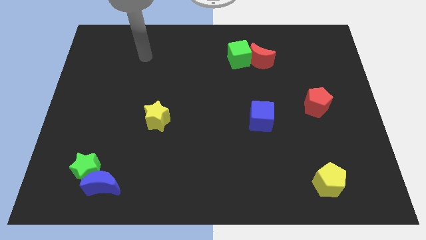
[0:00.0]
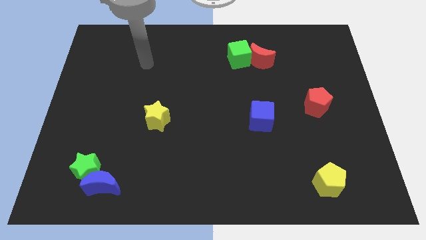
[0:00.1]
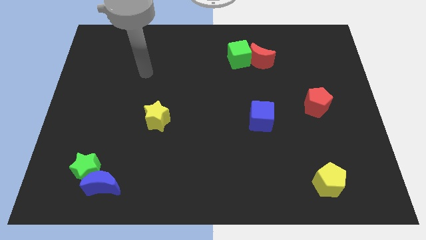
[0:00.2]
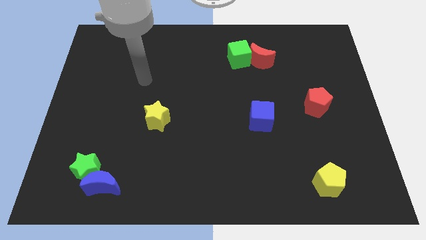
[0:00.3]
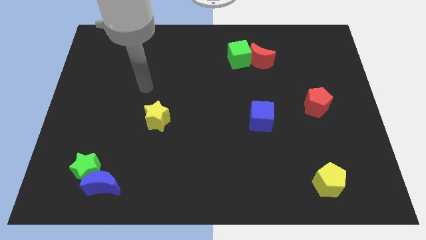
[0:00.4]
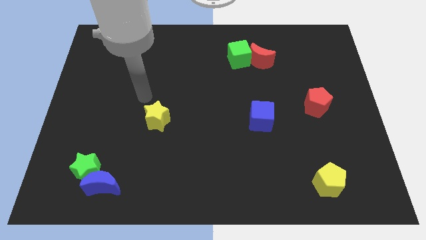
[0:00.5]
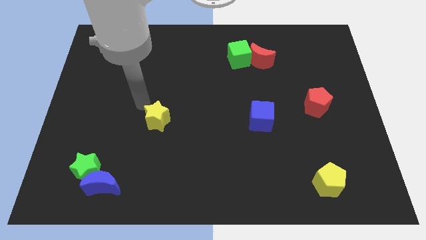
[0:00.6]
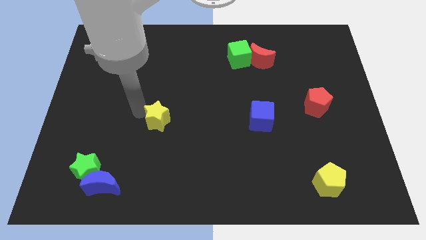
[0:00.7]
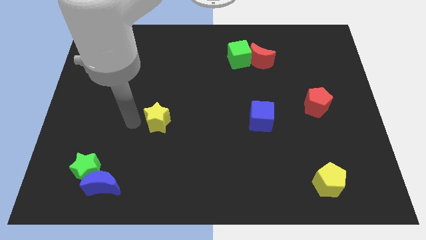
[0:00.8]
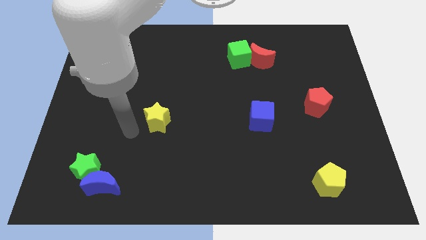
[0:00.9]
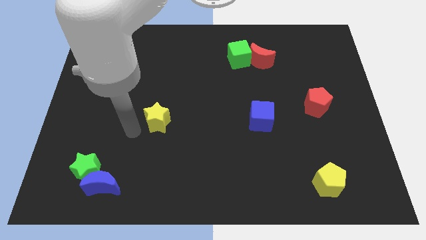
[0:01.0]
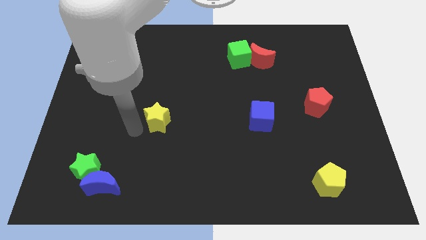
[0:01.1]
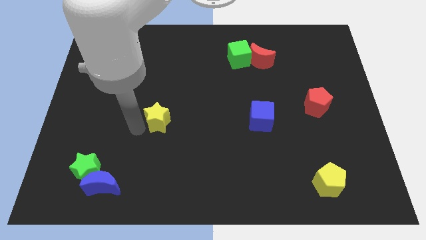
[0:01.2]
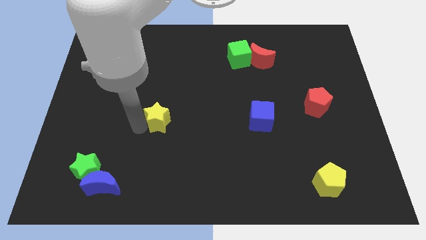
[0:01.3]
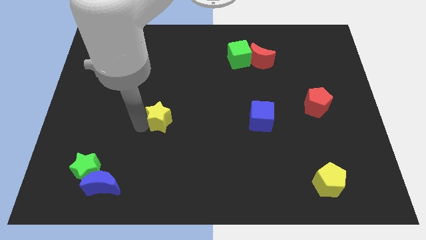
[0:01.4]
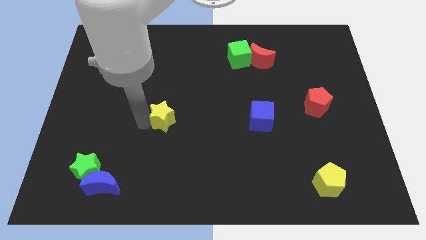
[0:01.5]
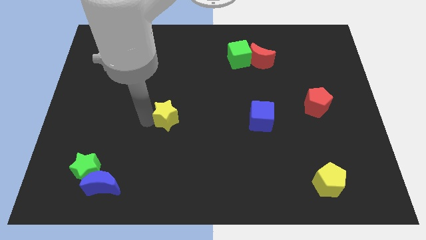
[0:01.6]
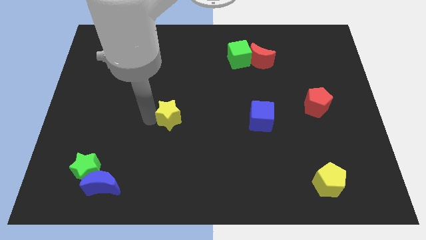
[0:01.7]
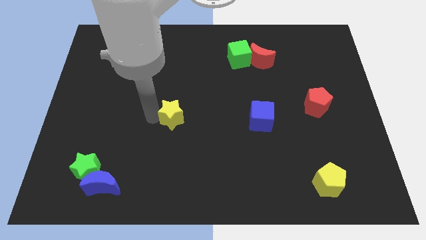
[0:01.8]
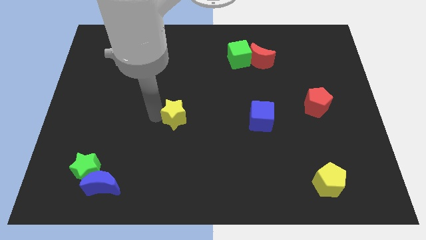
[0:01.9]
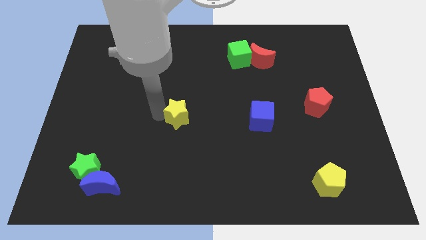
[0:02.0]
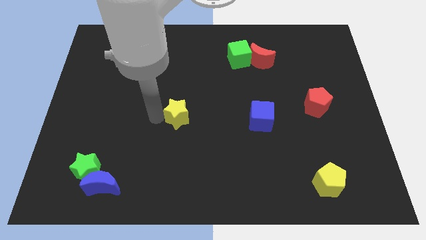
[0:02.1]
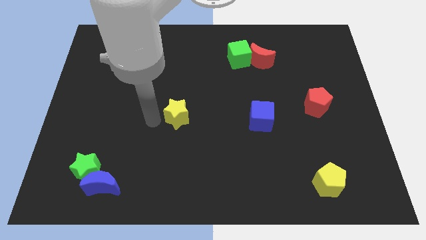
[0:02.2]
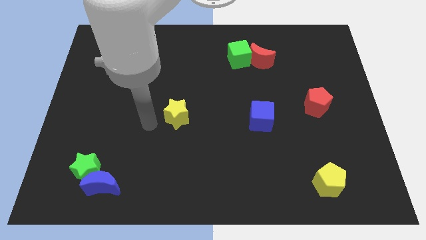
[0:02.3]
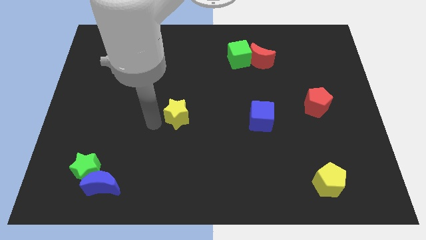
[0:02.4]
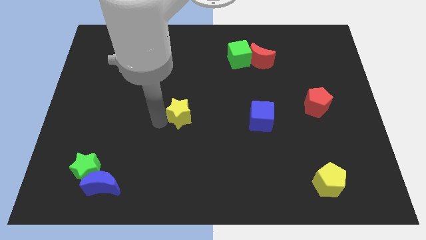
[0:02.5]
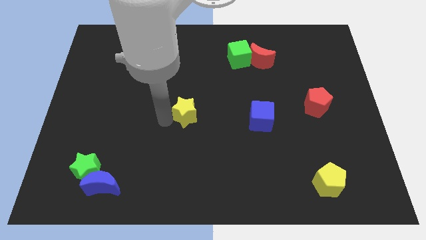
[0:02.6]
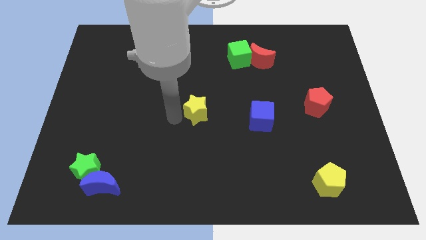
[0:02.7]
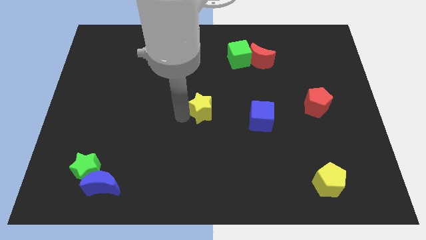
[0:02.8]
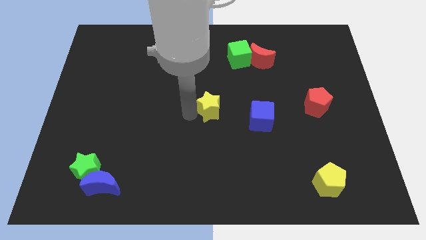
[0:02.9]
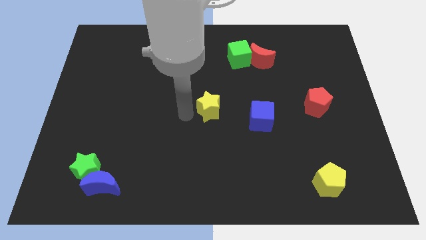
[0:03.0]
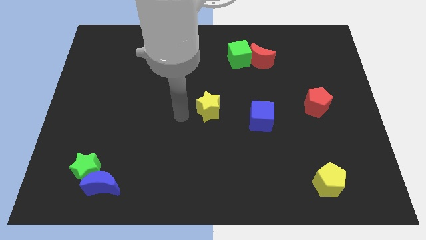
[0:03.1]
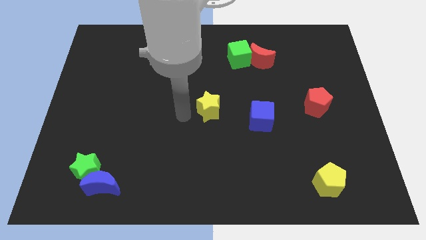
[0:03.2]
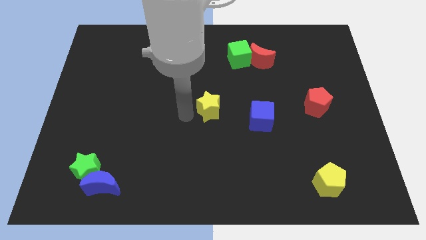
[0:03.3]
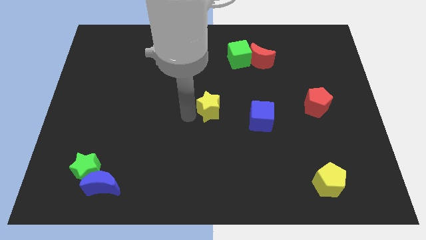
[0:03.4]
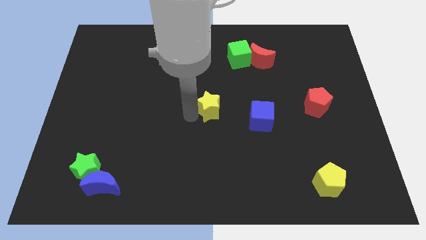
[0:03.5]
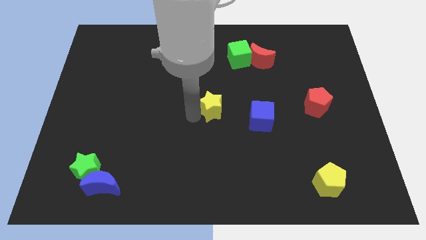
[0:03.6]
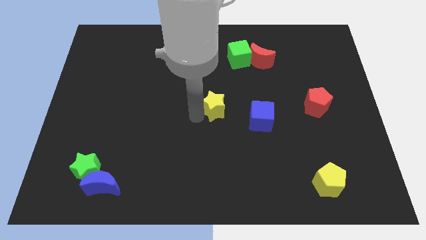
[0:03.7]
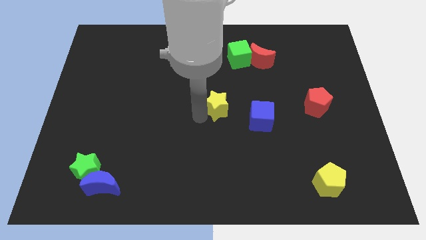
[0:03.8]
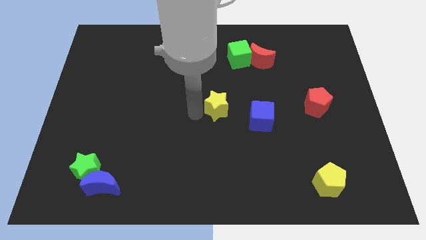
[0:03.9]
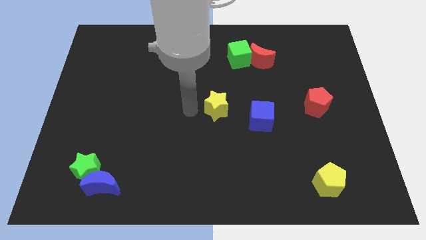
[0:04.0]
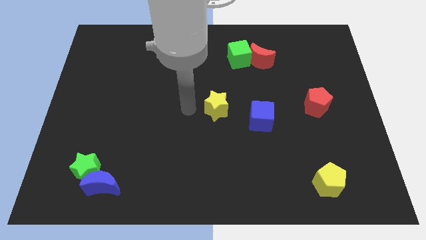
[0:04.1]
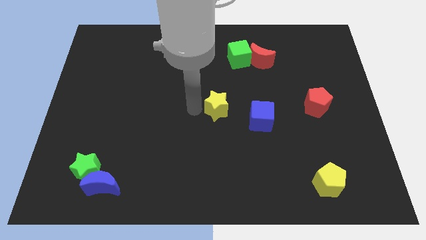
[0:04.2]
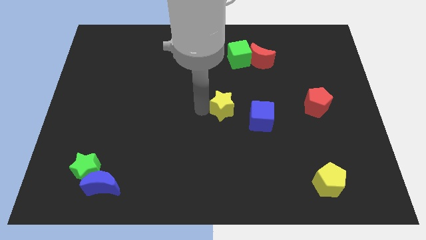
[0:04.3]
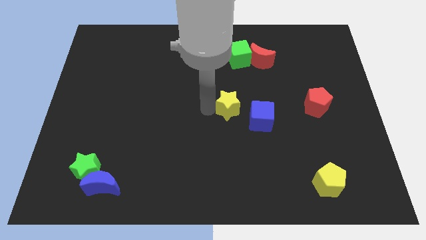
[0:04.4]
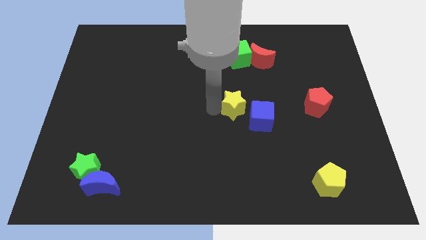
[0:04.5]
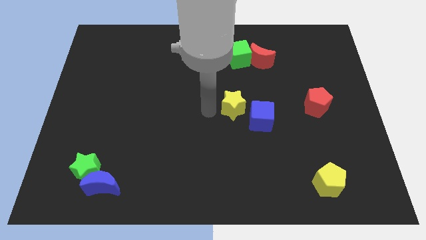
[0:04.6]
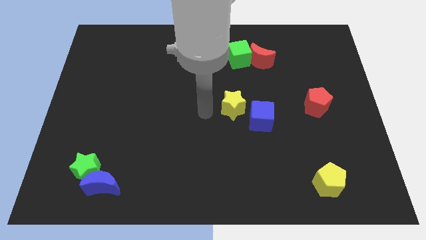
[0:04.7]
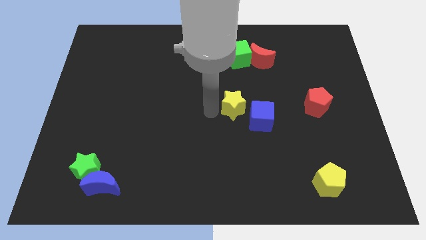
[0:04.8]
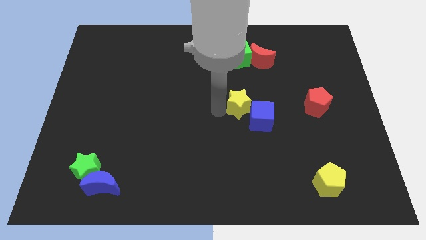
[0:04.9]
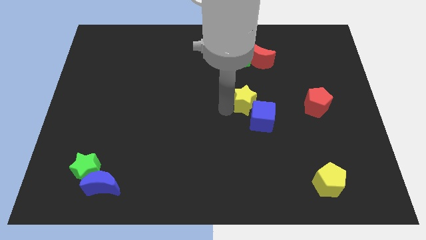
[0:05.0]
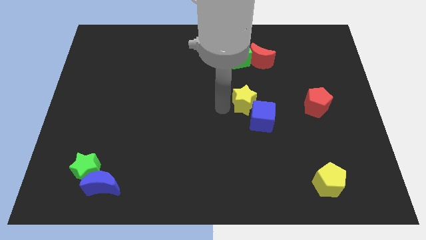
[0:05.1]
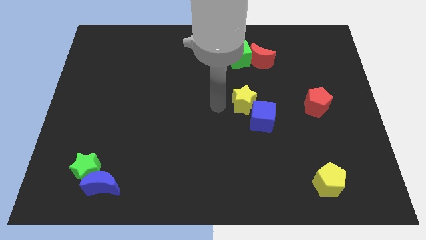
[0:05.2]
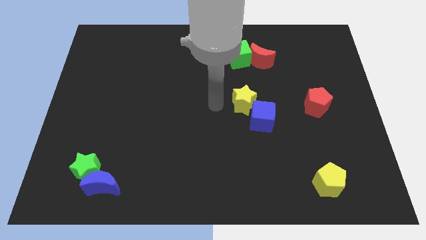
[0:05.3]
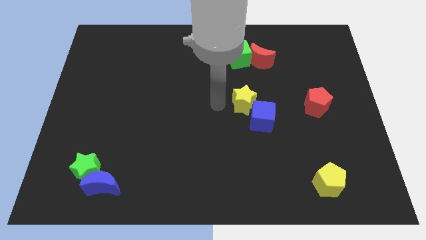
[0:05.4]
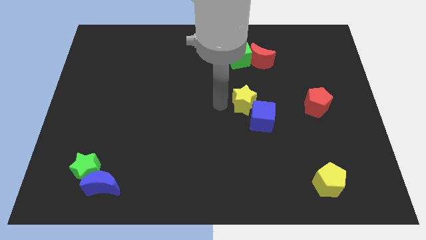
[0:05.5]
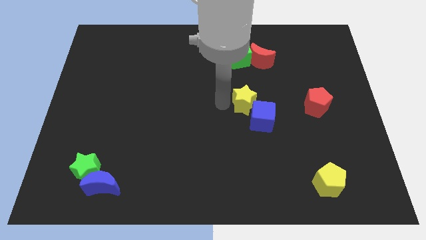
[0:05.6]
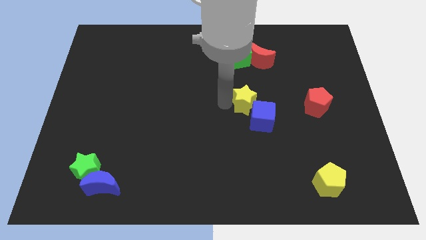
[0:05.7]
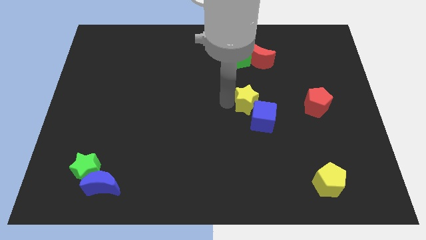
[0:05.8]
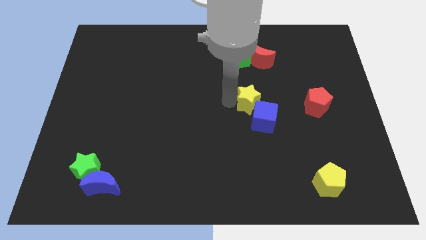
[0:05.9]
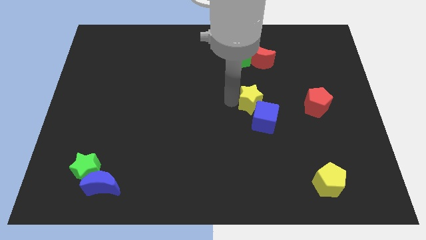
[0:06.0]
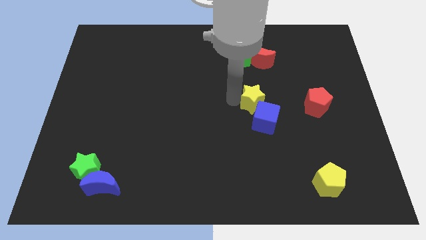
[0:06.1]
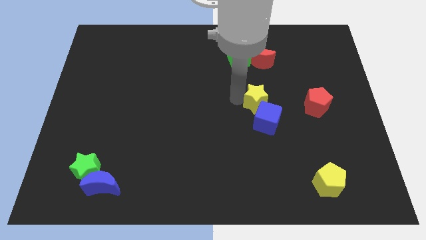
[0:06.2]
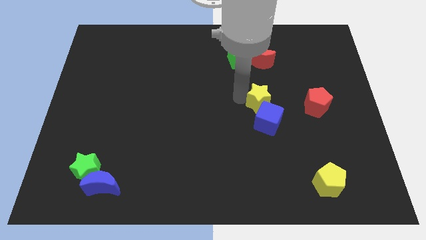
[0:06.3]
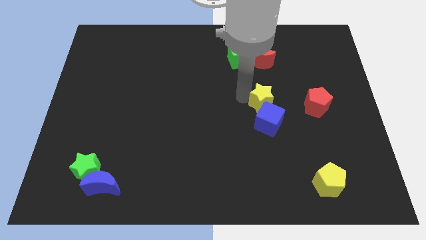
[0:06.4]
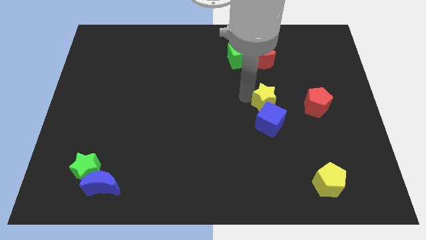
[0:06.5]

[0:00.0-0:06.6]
slide the yellow star diagonally up and to the right of the blue cube

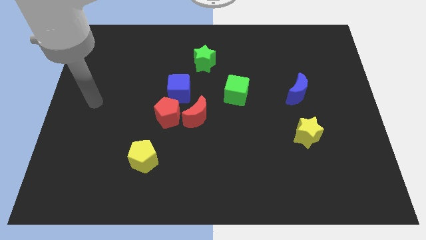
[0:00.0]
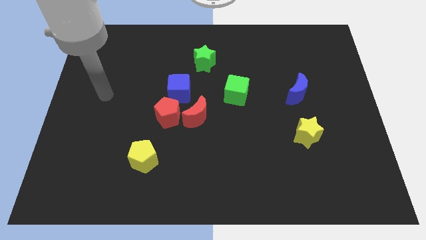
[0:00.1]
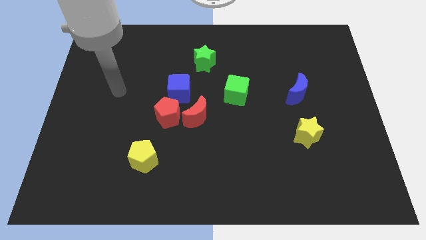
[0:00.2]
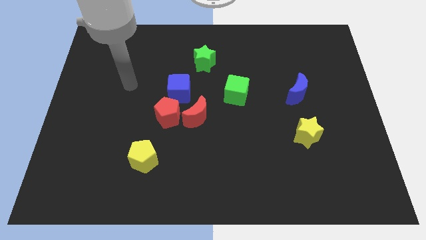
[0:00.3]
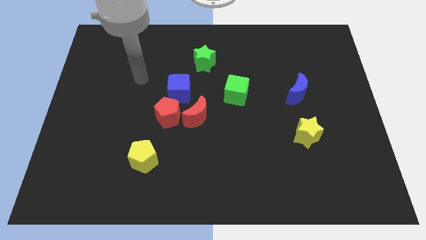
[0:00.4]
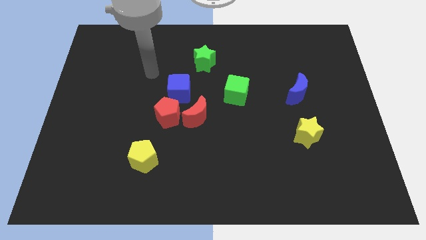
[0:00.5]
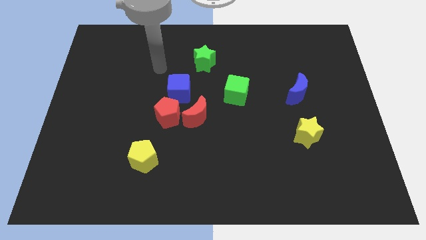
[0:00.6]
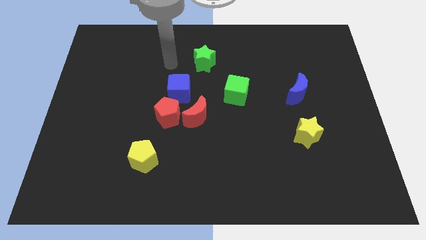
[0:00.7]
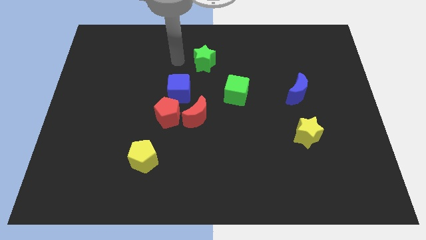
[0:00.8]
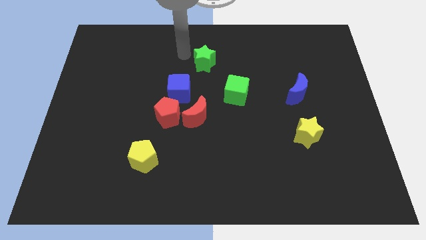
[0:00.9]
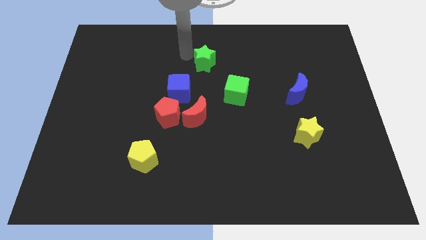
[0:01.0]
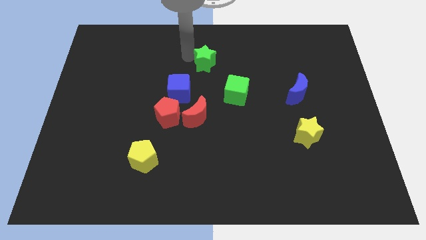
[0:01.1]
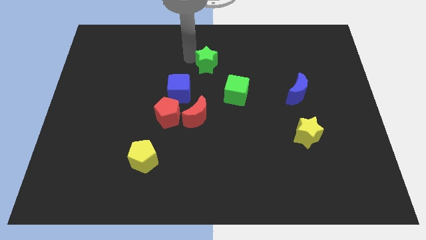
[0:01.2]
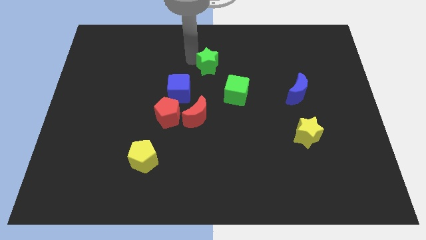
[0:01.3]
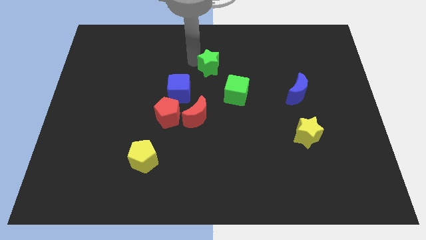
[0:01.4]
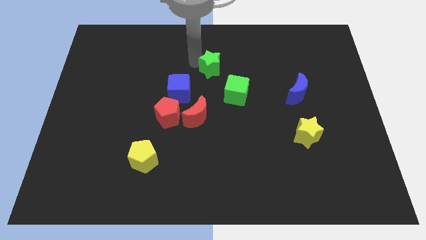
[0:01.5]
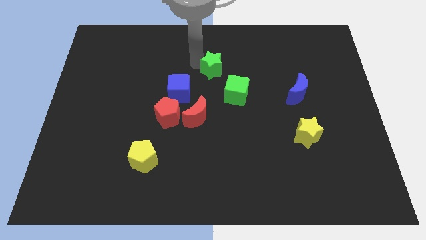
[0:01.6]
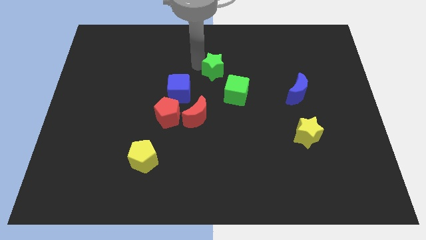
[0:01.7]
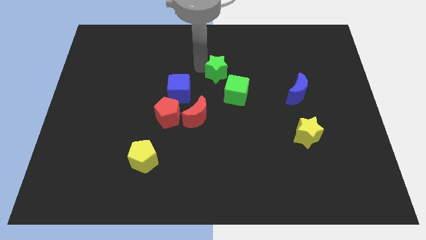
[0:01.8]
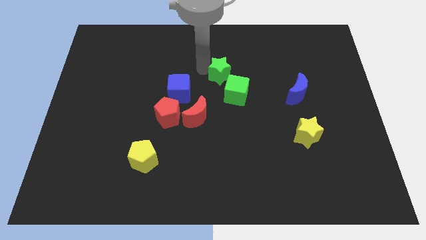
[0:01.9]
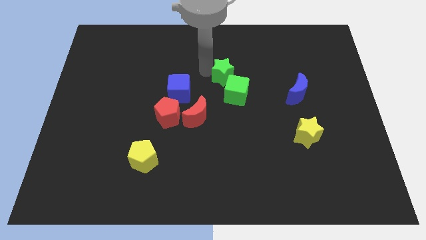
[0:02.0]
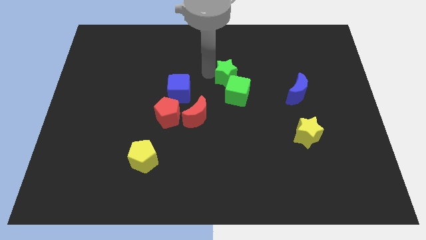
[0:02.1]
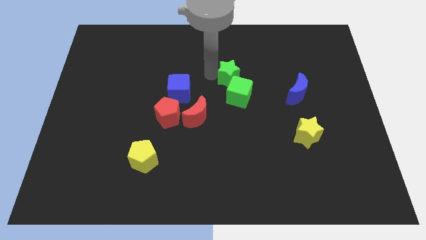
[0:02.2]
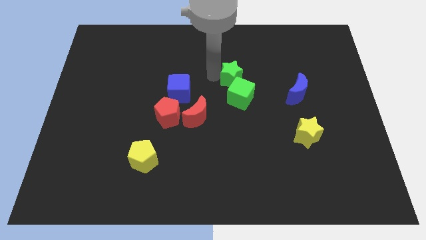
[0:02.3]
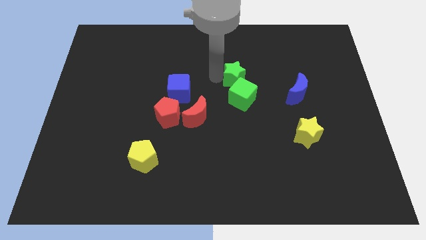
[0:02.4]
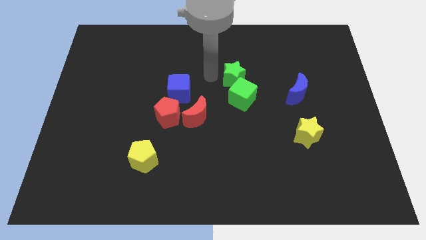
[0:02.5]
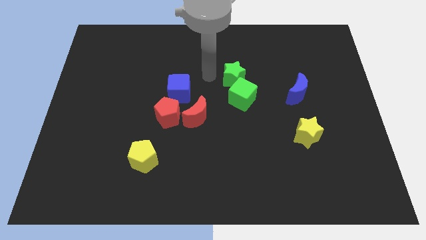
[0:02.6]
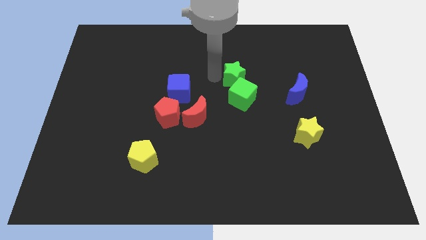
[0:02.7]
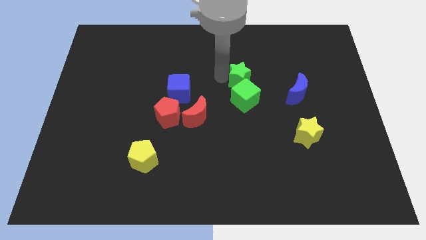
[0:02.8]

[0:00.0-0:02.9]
slide the green star diagonally up and to the right of the green cube
